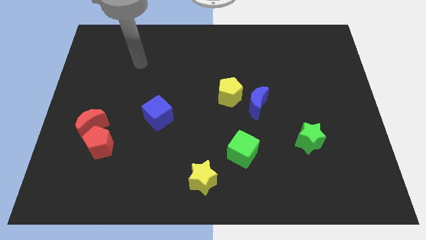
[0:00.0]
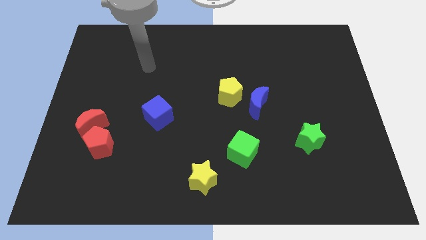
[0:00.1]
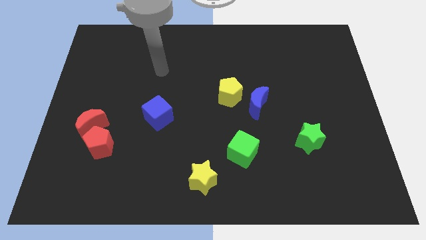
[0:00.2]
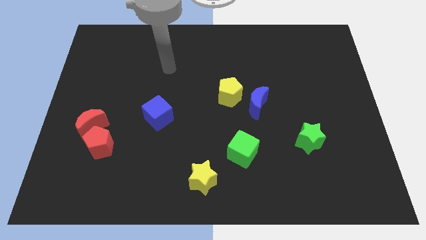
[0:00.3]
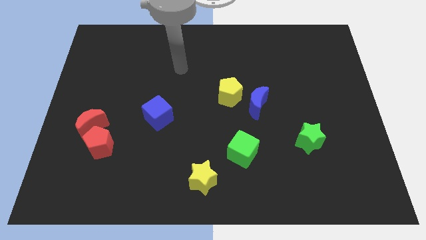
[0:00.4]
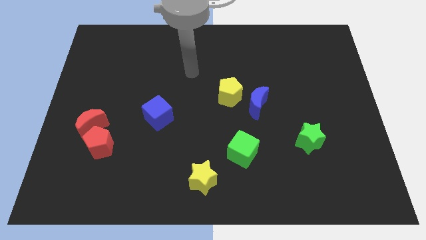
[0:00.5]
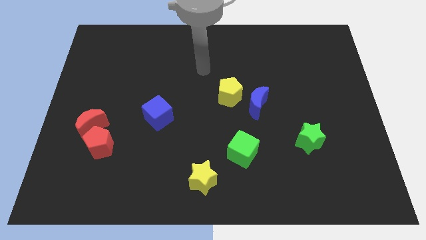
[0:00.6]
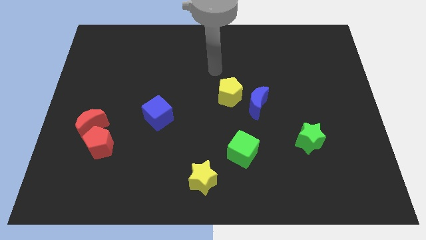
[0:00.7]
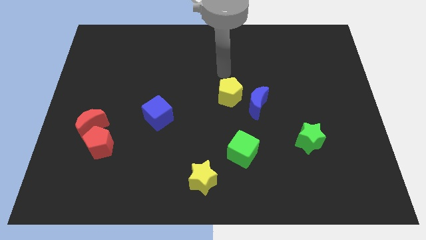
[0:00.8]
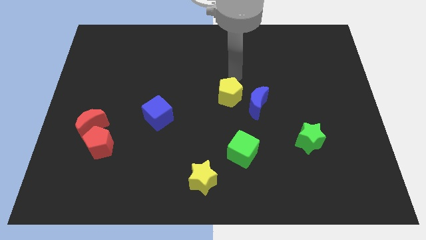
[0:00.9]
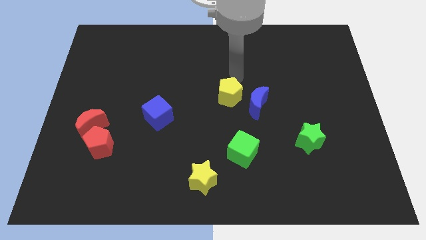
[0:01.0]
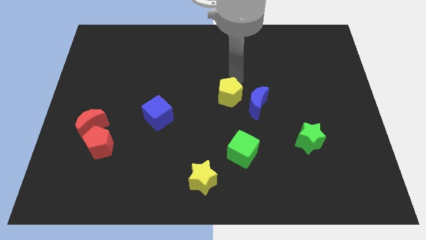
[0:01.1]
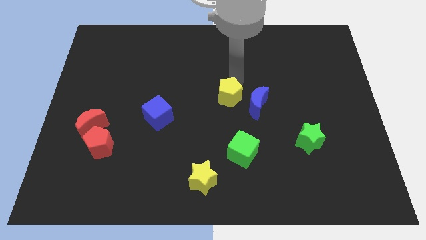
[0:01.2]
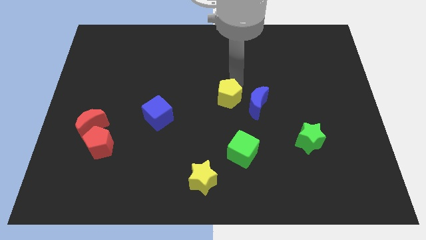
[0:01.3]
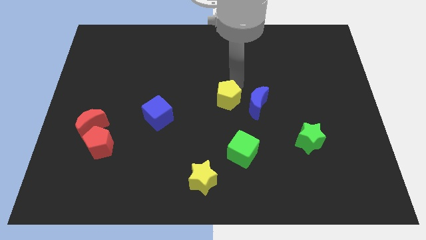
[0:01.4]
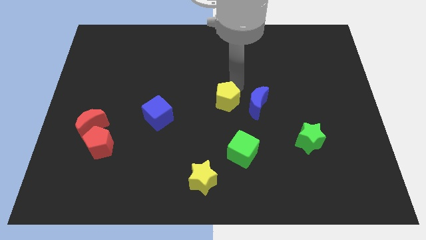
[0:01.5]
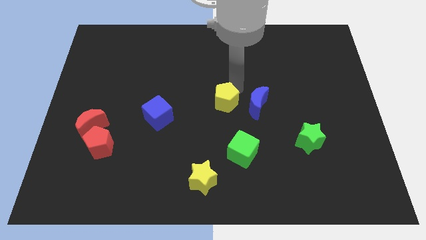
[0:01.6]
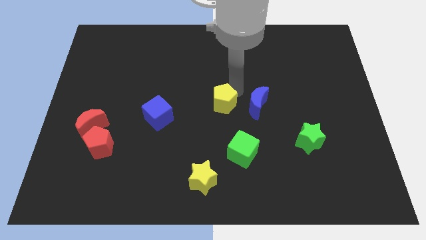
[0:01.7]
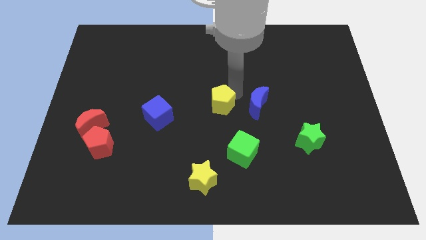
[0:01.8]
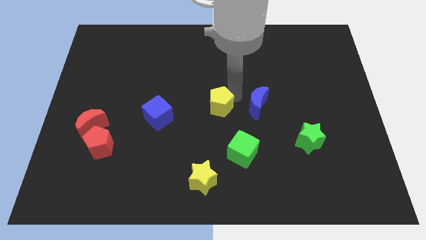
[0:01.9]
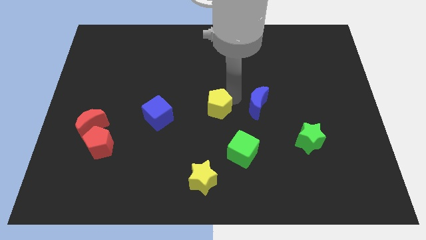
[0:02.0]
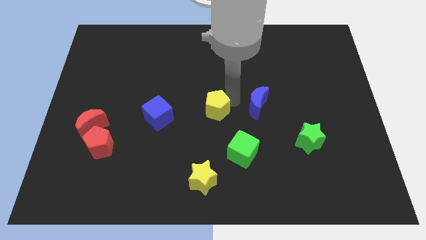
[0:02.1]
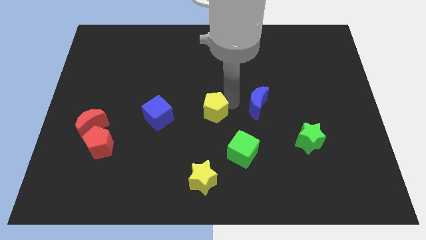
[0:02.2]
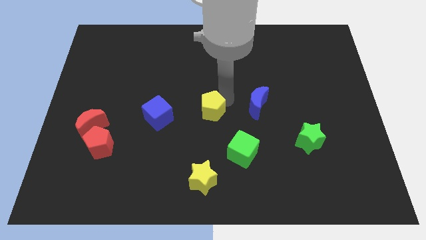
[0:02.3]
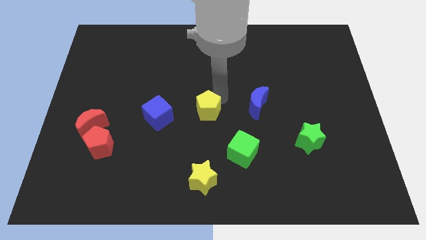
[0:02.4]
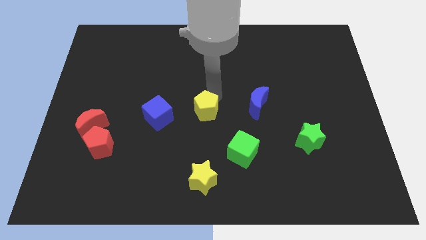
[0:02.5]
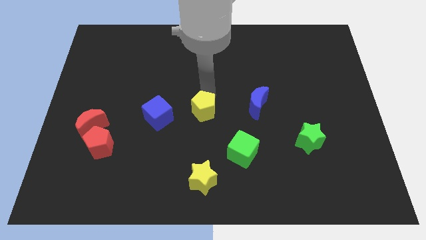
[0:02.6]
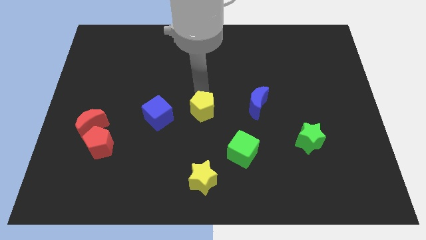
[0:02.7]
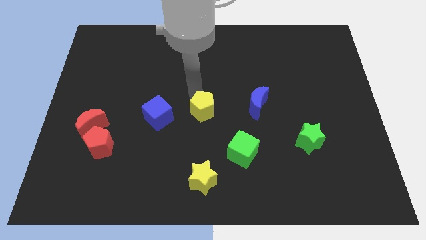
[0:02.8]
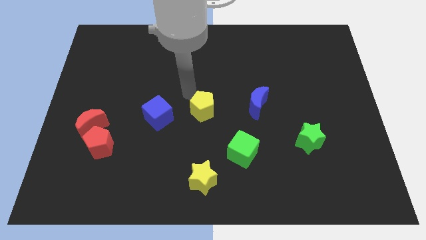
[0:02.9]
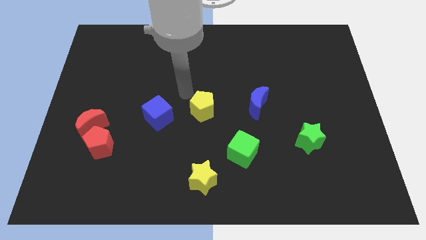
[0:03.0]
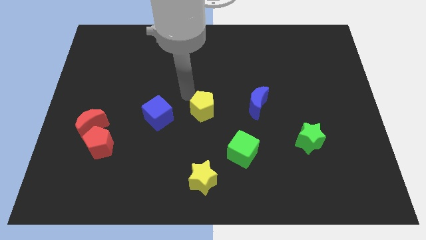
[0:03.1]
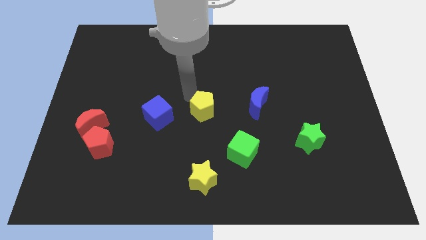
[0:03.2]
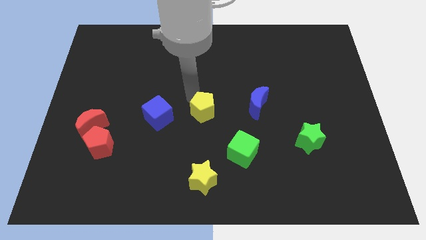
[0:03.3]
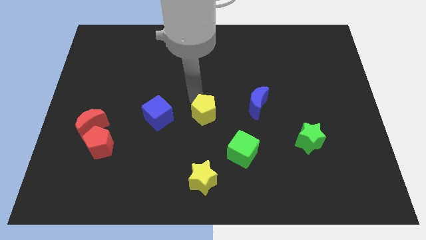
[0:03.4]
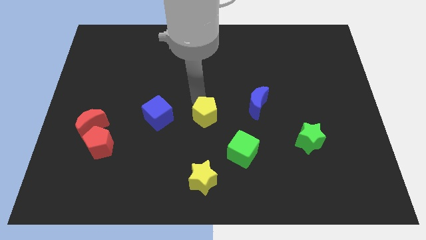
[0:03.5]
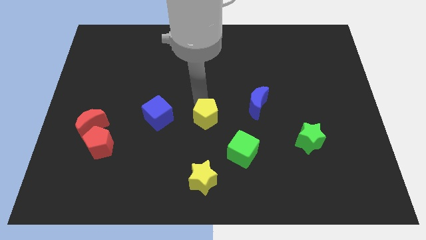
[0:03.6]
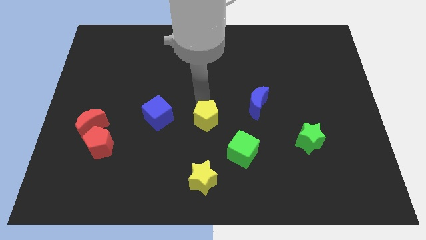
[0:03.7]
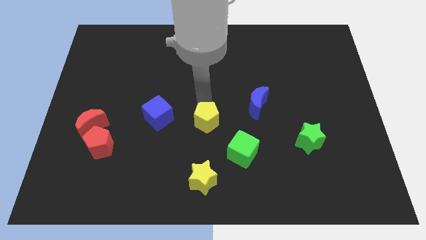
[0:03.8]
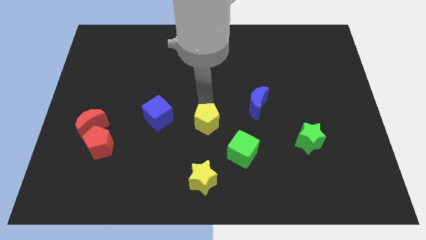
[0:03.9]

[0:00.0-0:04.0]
slightly move the yellow pentagon downwards

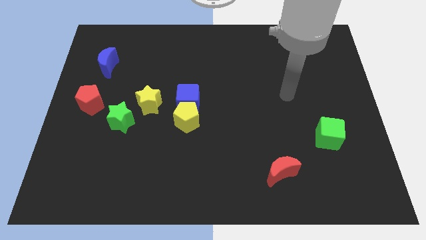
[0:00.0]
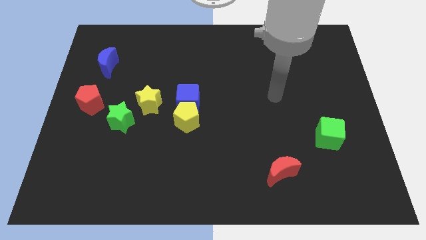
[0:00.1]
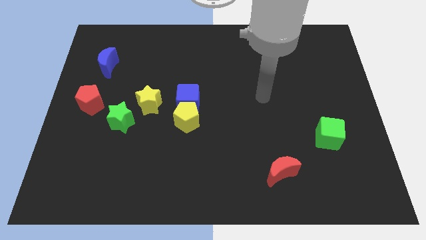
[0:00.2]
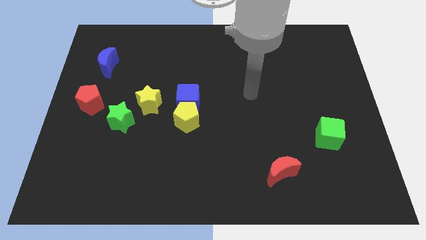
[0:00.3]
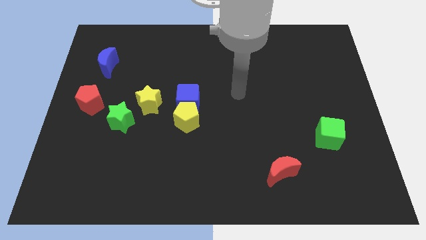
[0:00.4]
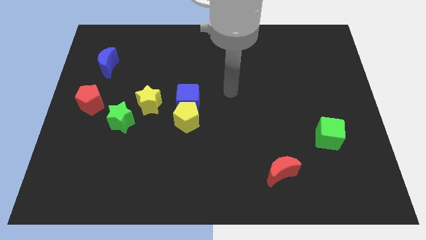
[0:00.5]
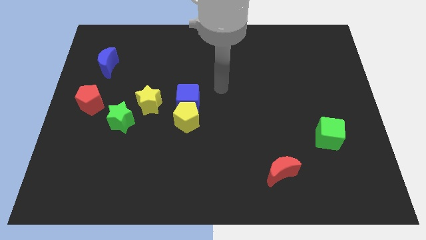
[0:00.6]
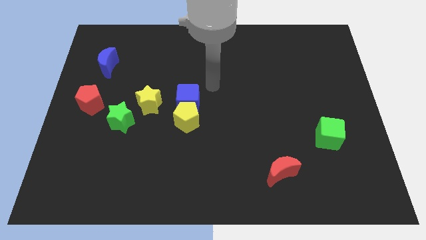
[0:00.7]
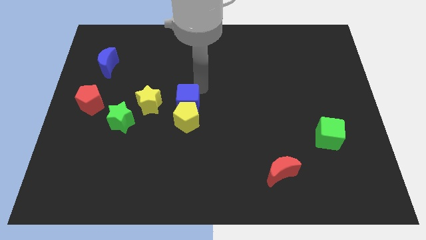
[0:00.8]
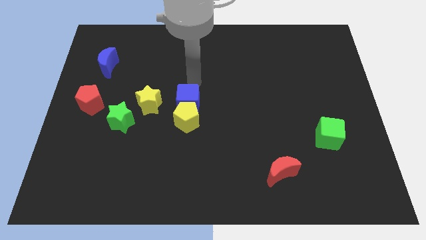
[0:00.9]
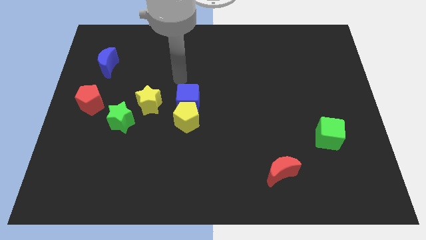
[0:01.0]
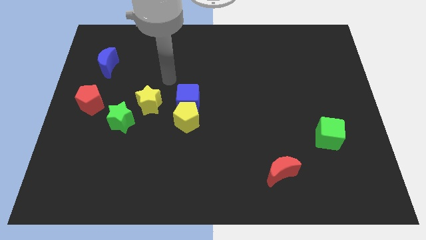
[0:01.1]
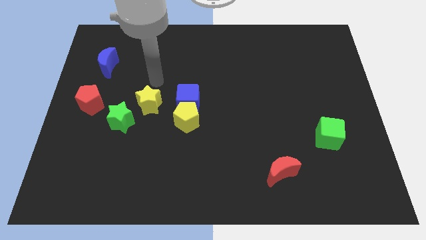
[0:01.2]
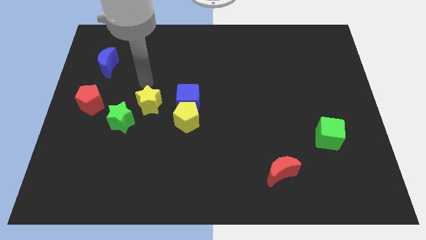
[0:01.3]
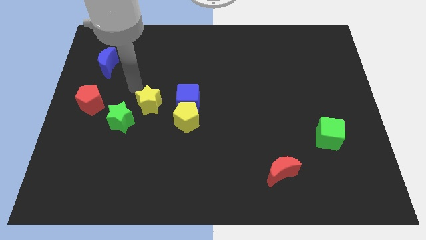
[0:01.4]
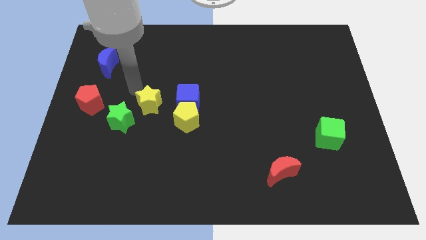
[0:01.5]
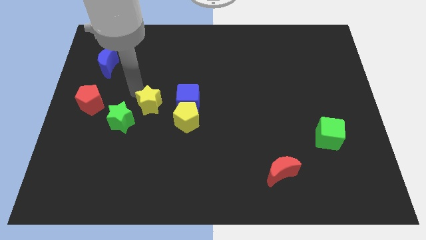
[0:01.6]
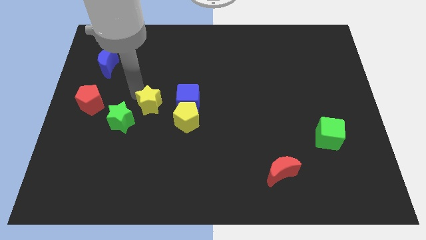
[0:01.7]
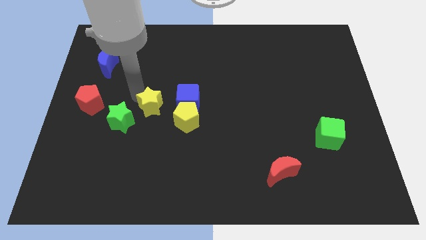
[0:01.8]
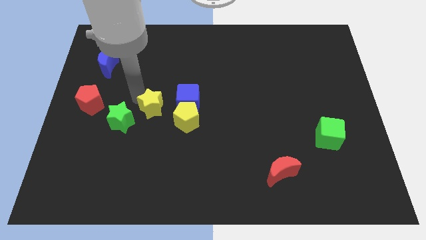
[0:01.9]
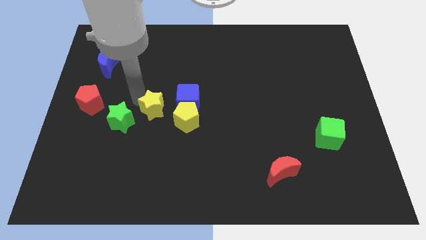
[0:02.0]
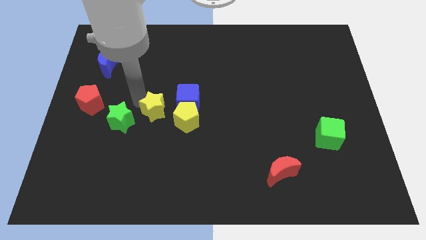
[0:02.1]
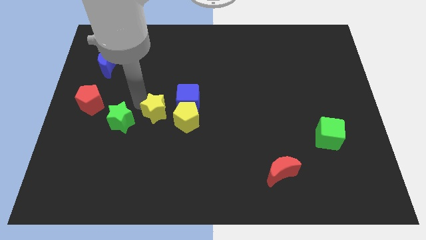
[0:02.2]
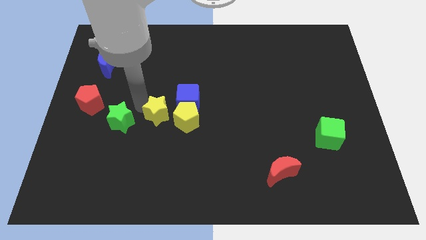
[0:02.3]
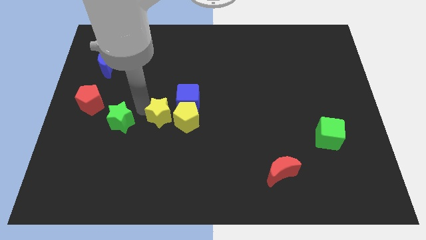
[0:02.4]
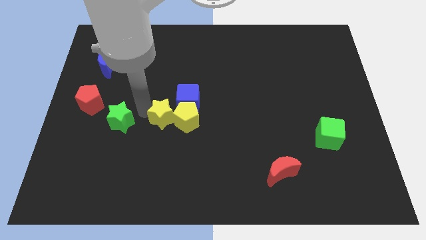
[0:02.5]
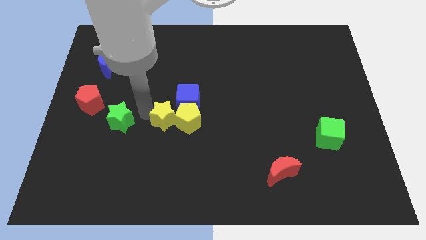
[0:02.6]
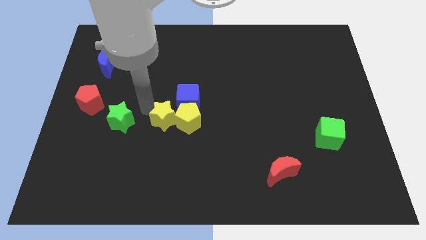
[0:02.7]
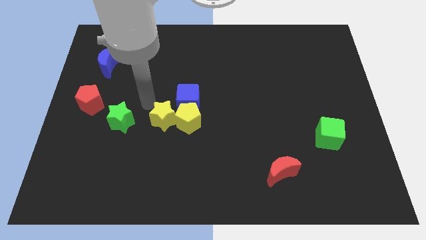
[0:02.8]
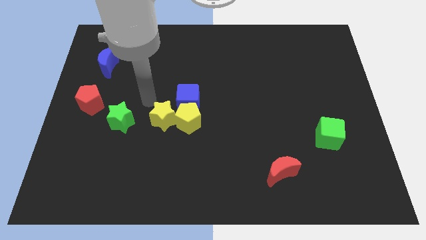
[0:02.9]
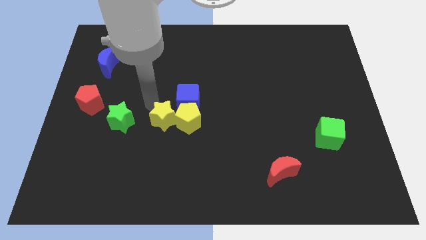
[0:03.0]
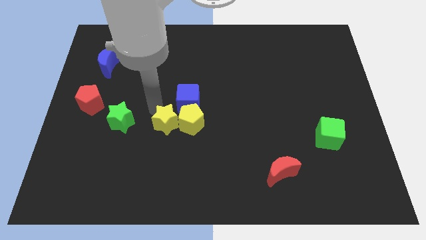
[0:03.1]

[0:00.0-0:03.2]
move the yellow star down and right diagonally slightly

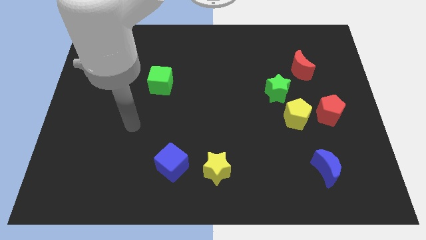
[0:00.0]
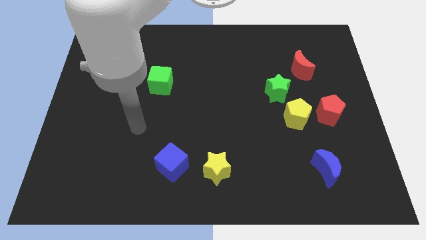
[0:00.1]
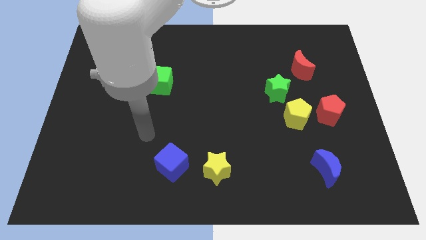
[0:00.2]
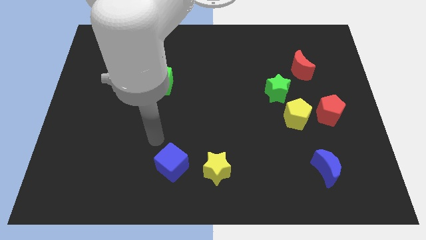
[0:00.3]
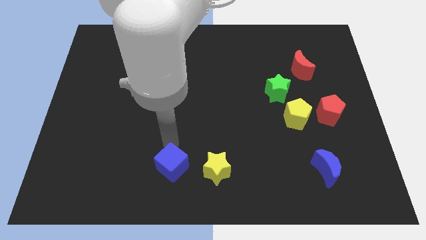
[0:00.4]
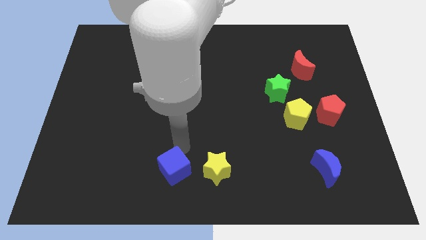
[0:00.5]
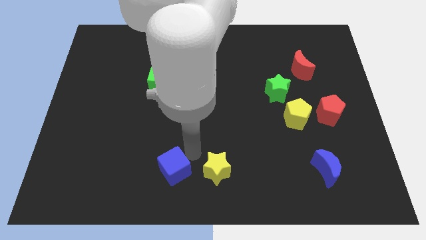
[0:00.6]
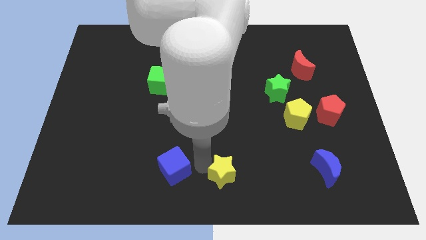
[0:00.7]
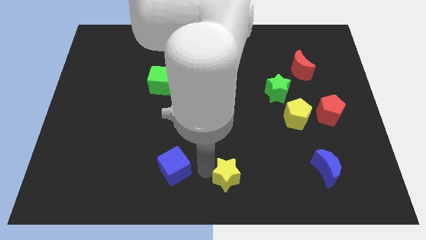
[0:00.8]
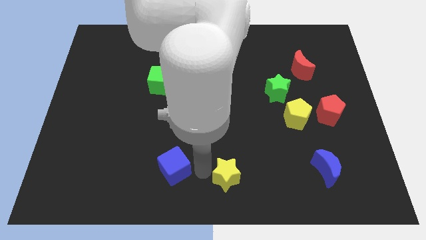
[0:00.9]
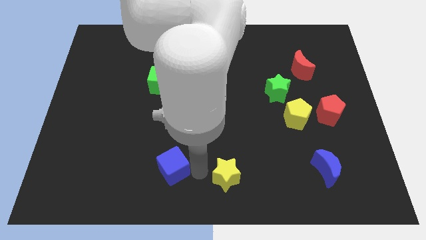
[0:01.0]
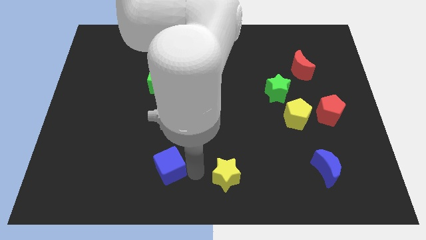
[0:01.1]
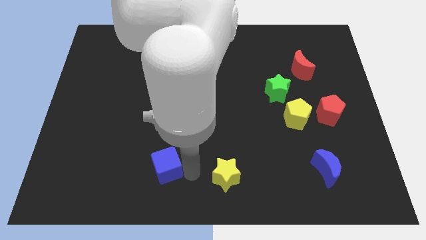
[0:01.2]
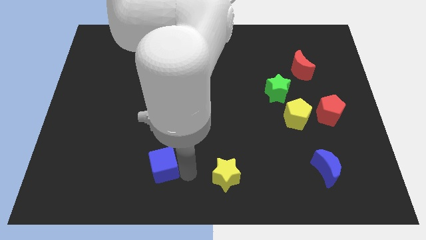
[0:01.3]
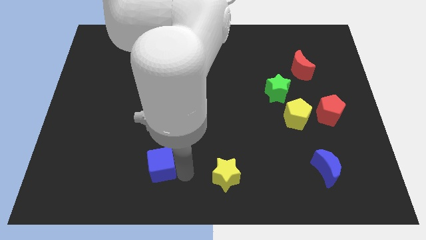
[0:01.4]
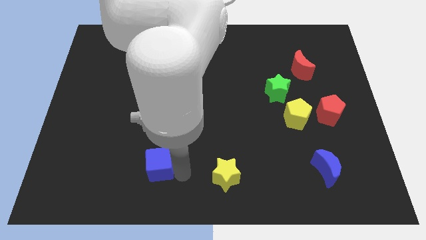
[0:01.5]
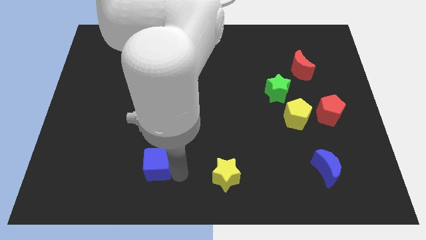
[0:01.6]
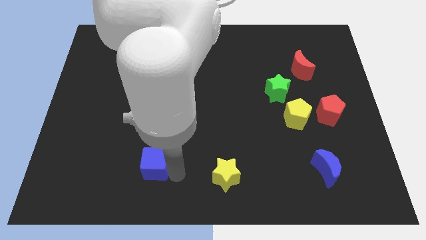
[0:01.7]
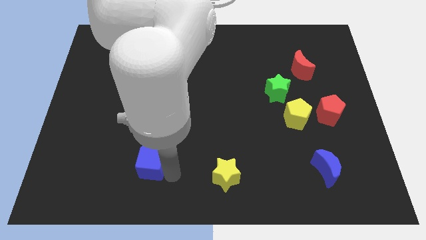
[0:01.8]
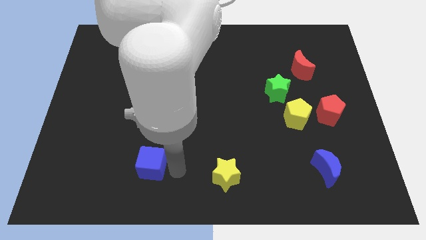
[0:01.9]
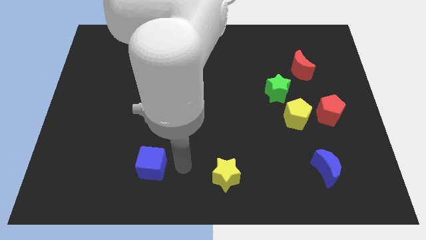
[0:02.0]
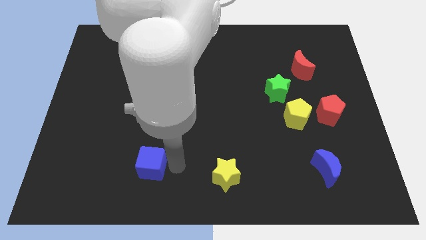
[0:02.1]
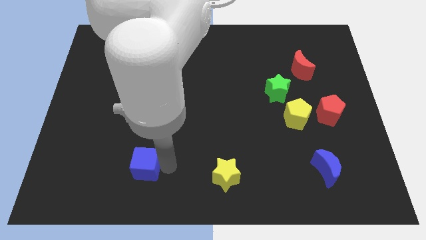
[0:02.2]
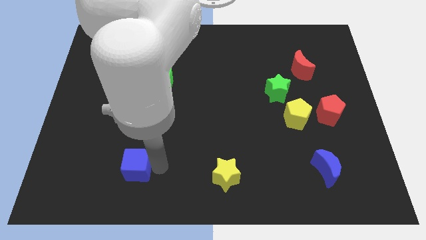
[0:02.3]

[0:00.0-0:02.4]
slide the blue cube to the left a little
